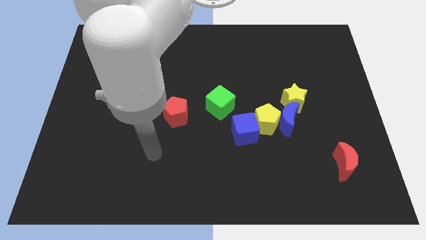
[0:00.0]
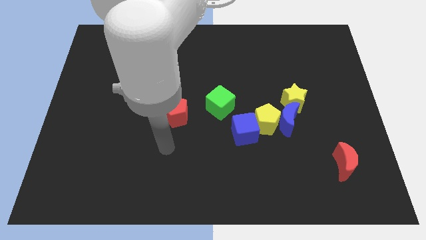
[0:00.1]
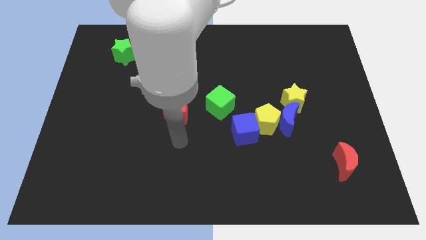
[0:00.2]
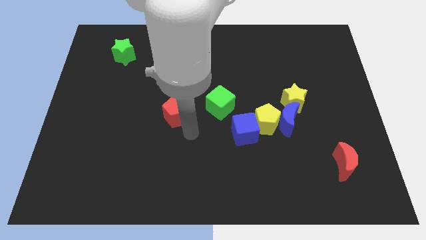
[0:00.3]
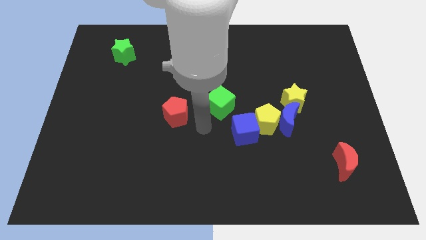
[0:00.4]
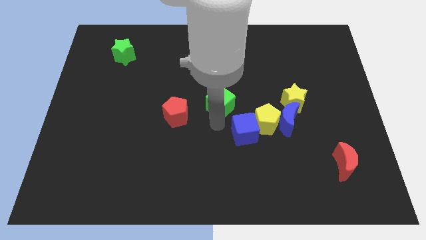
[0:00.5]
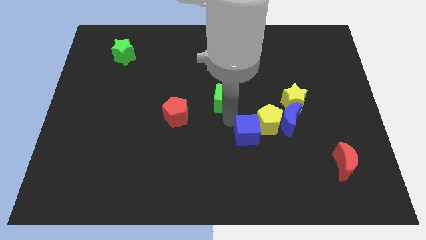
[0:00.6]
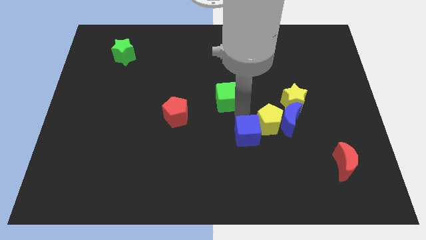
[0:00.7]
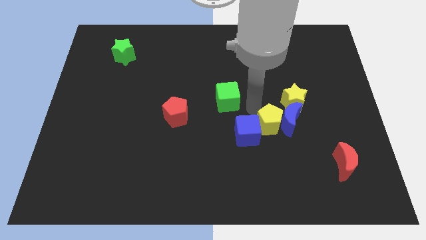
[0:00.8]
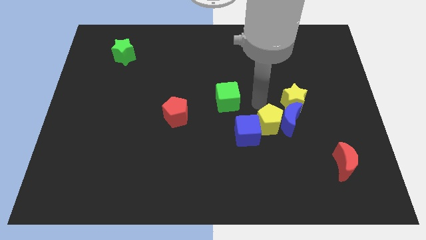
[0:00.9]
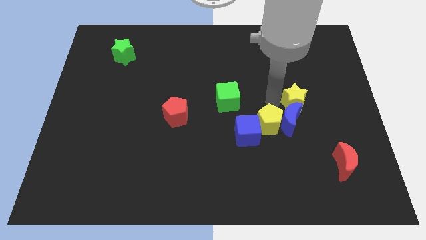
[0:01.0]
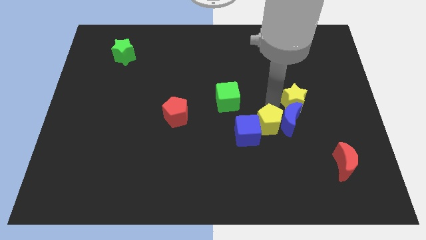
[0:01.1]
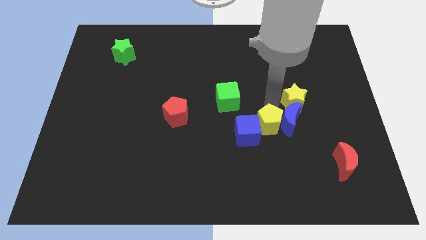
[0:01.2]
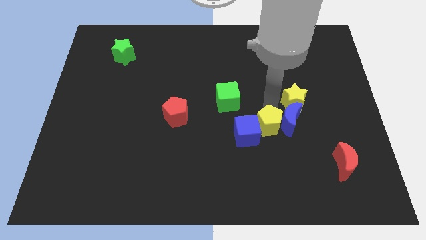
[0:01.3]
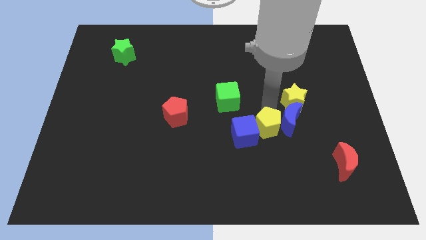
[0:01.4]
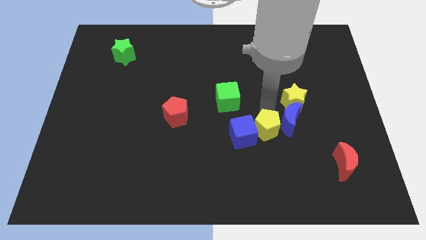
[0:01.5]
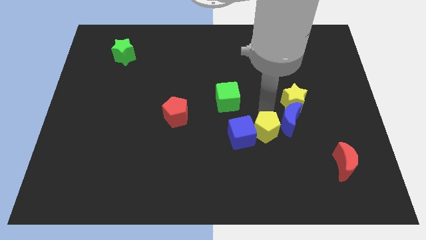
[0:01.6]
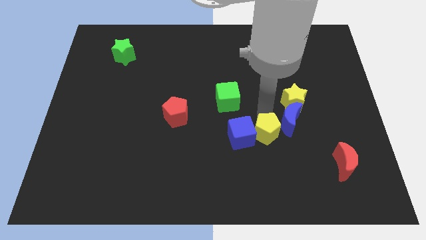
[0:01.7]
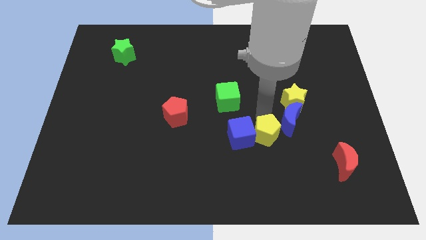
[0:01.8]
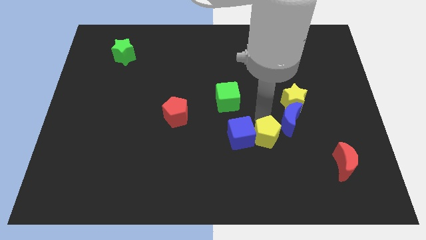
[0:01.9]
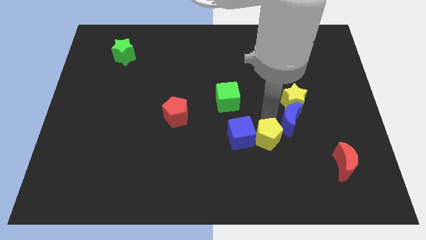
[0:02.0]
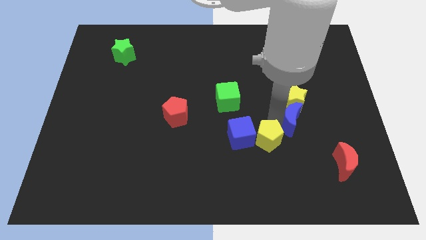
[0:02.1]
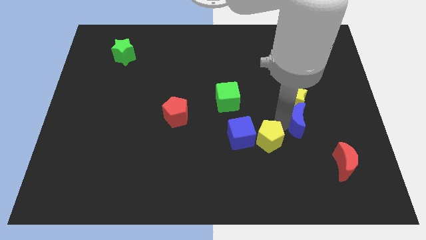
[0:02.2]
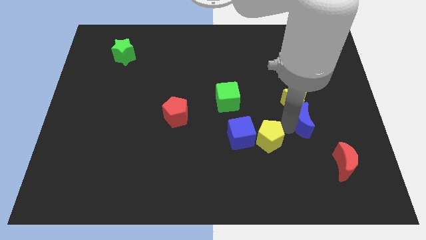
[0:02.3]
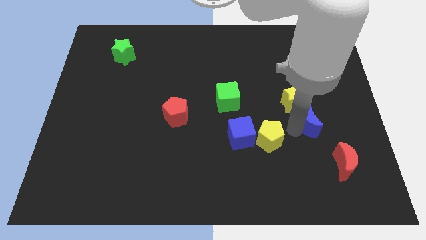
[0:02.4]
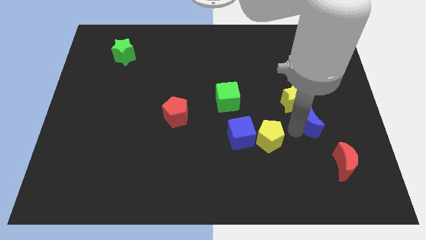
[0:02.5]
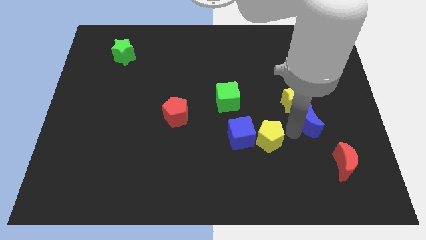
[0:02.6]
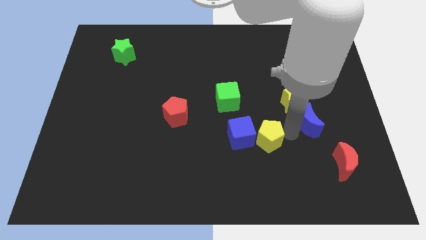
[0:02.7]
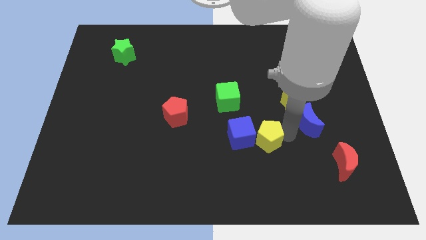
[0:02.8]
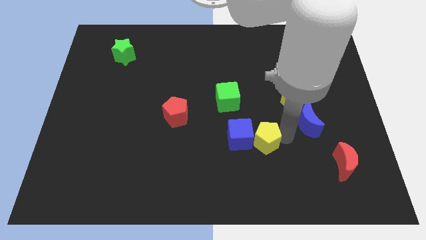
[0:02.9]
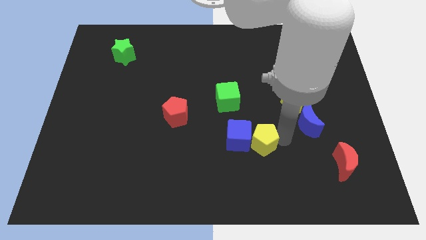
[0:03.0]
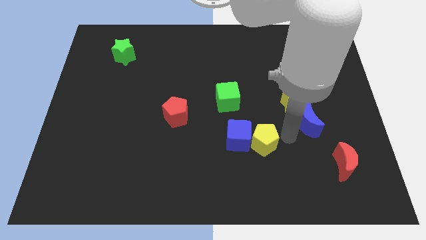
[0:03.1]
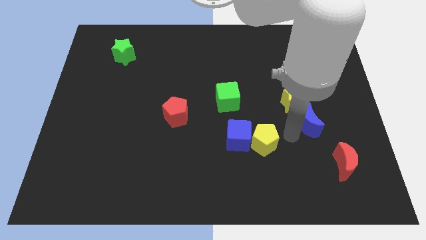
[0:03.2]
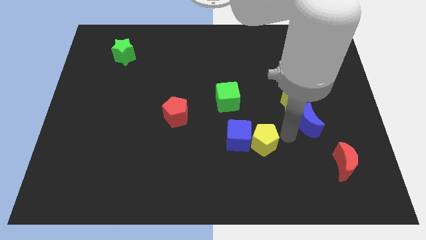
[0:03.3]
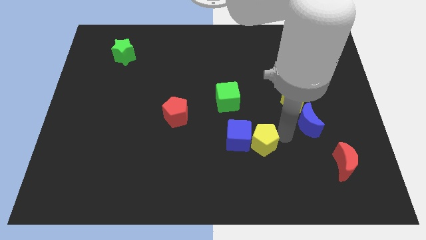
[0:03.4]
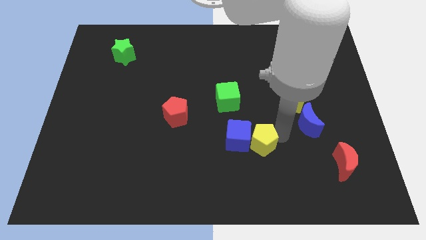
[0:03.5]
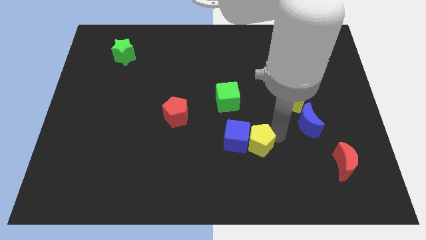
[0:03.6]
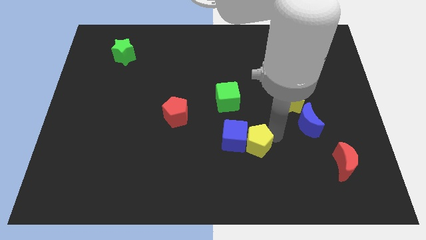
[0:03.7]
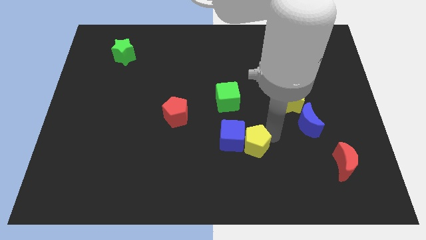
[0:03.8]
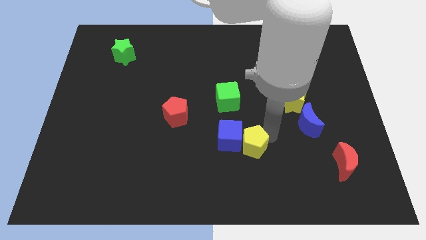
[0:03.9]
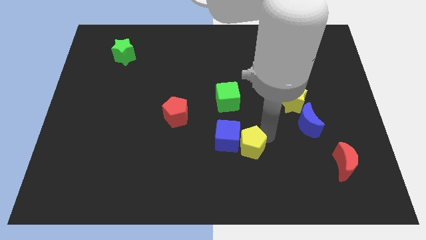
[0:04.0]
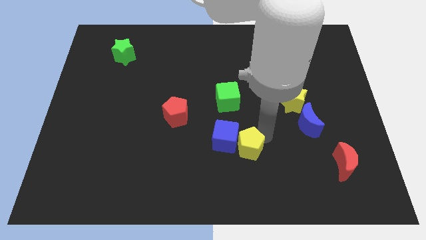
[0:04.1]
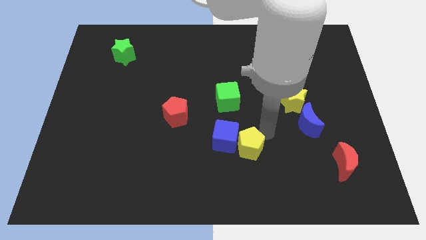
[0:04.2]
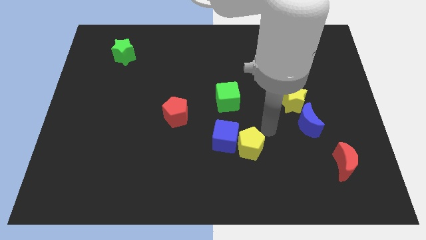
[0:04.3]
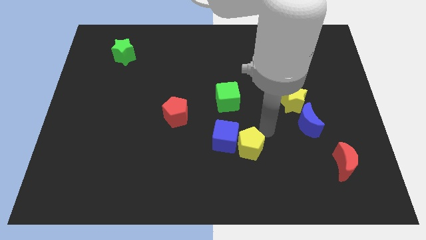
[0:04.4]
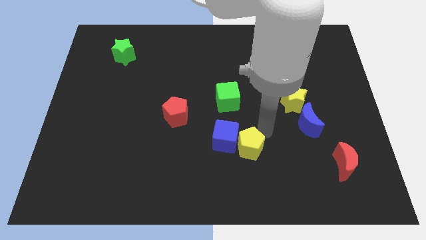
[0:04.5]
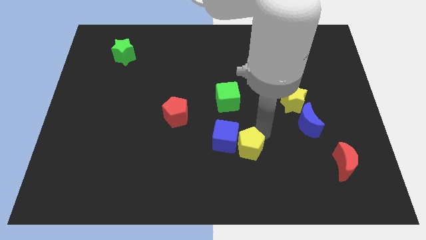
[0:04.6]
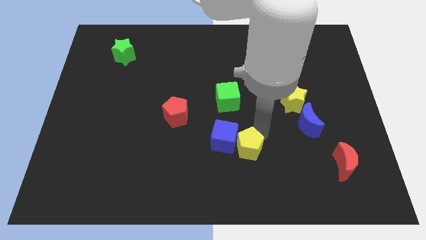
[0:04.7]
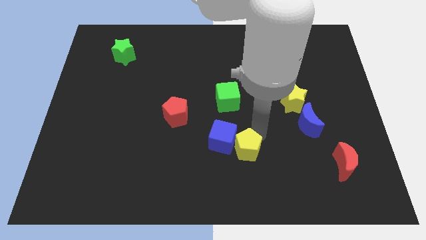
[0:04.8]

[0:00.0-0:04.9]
move the yellow pentagon away from the blue moon, blue cube, and yellow star

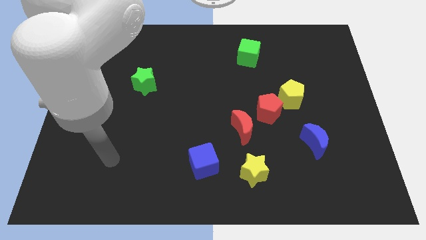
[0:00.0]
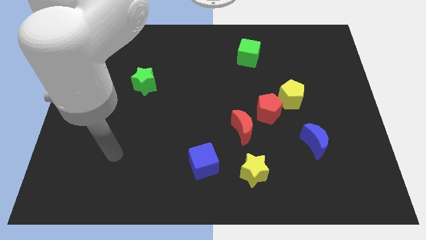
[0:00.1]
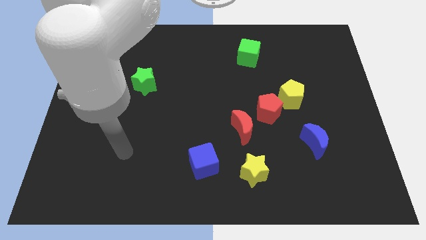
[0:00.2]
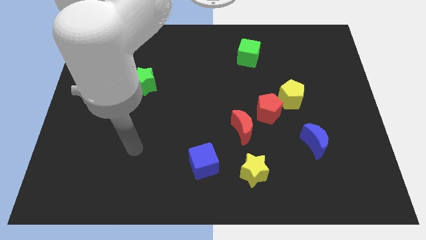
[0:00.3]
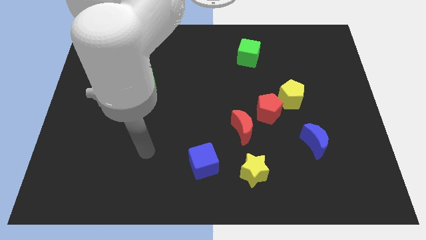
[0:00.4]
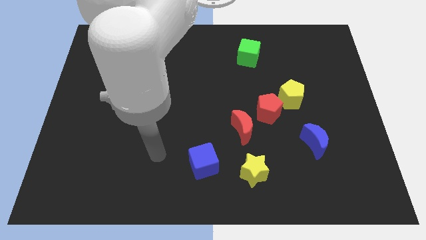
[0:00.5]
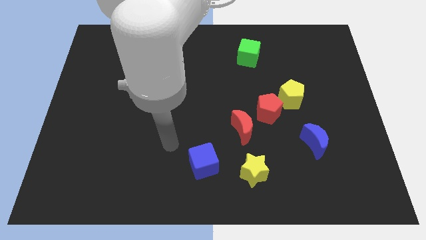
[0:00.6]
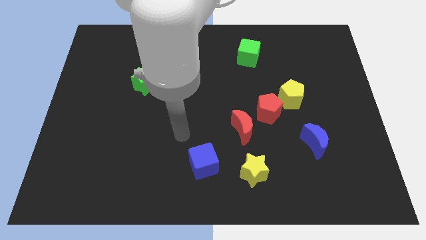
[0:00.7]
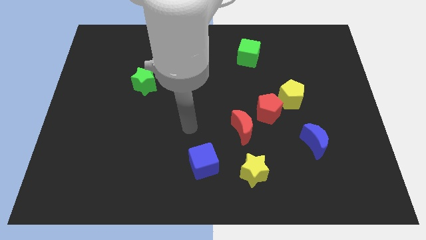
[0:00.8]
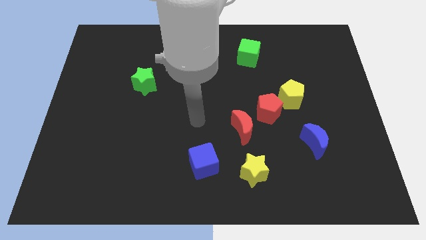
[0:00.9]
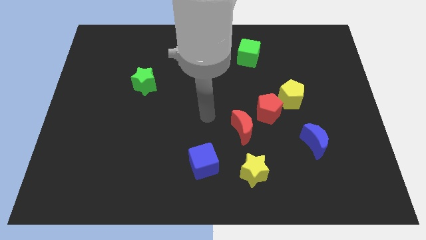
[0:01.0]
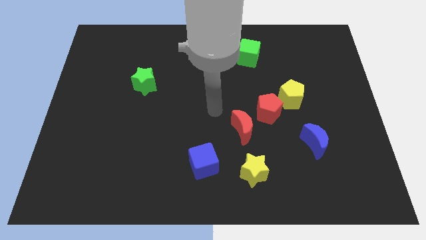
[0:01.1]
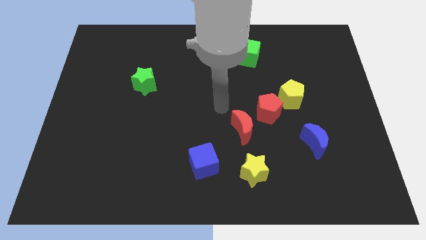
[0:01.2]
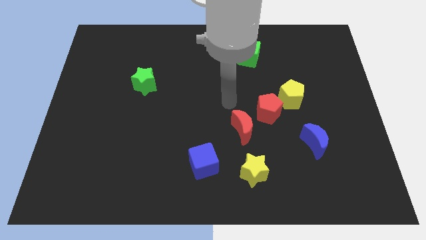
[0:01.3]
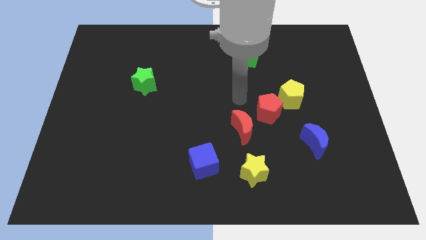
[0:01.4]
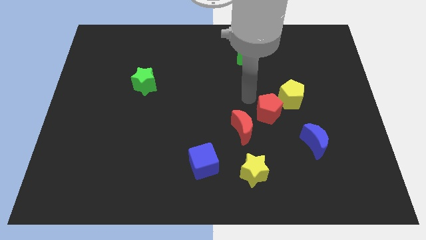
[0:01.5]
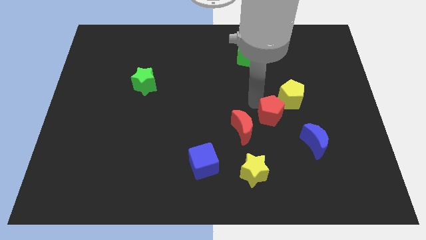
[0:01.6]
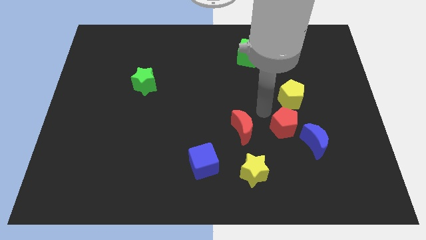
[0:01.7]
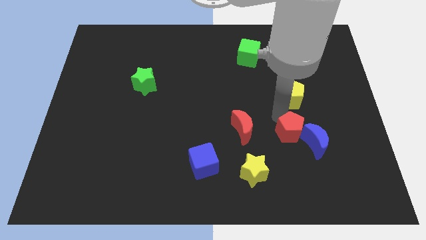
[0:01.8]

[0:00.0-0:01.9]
separate the yellow pentagon from the red pentagon

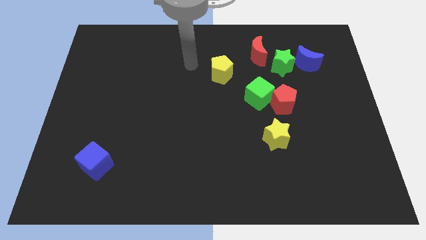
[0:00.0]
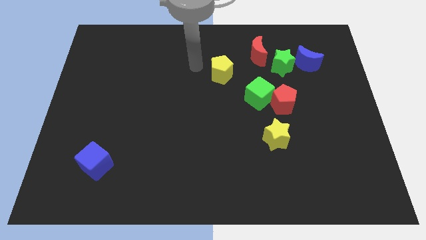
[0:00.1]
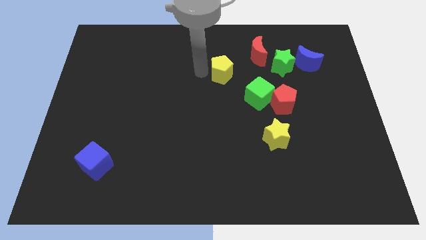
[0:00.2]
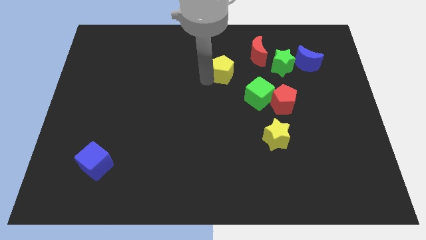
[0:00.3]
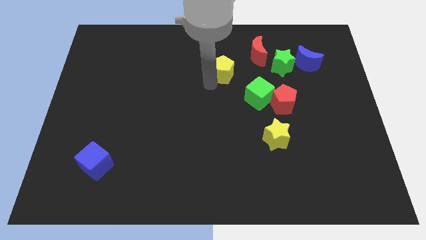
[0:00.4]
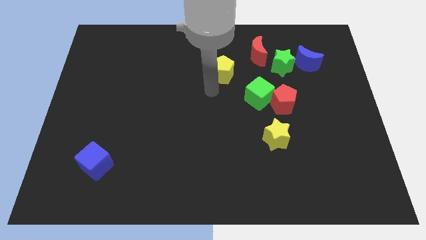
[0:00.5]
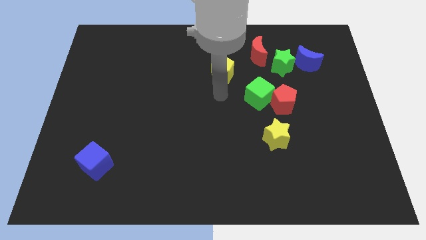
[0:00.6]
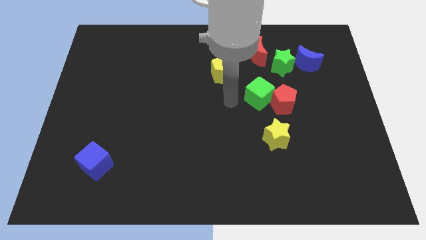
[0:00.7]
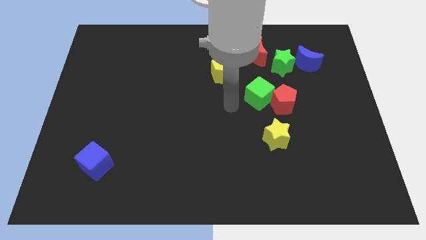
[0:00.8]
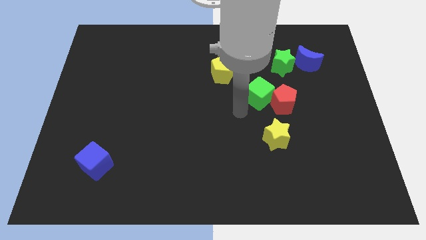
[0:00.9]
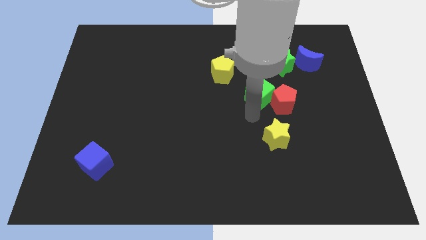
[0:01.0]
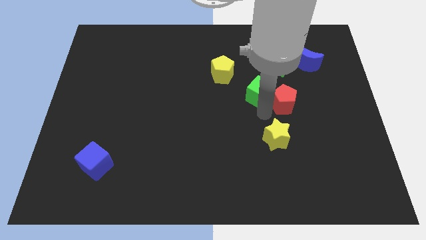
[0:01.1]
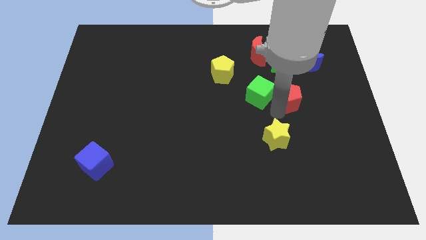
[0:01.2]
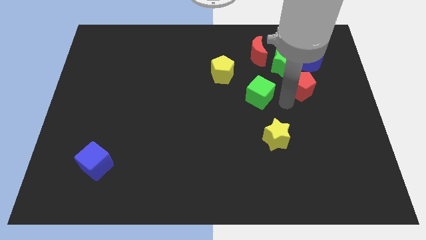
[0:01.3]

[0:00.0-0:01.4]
pull the green cube apart from the red pentagon

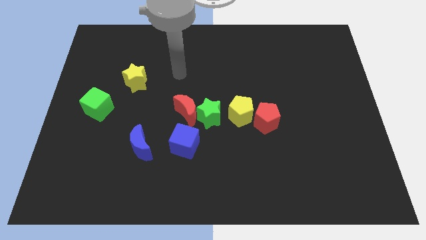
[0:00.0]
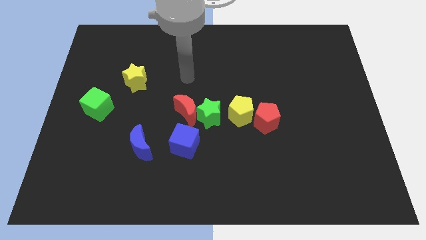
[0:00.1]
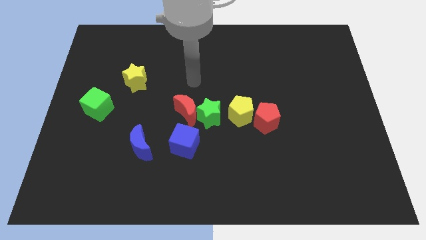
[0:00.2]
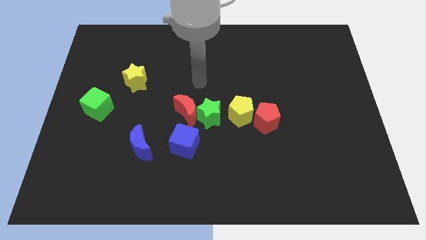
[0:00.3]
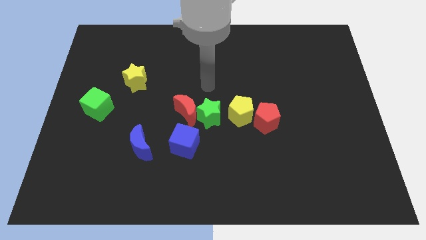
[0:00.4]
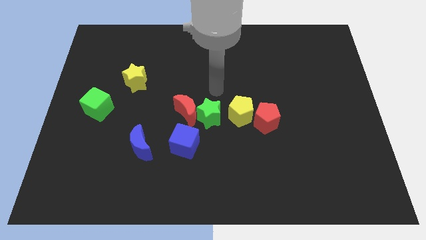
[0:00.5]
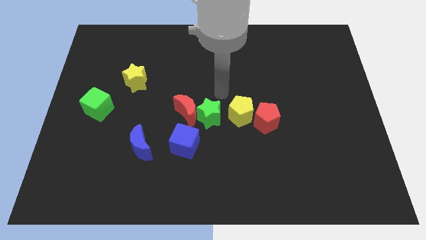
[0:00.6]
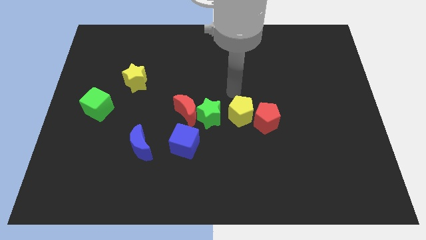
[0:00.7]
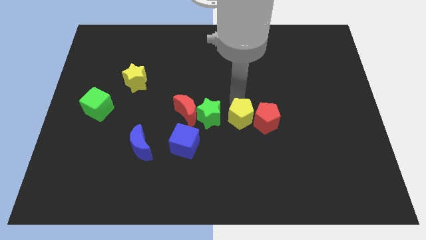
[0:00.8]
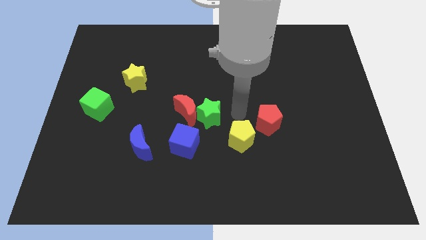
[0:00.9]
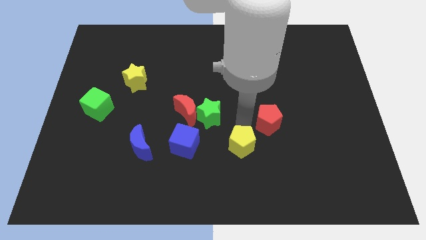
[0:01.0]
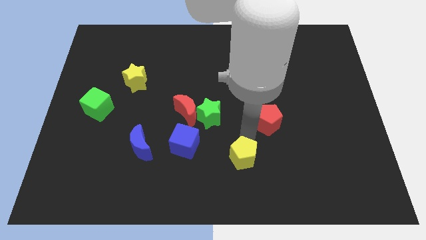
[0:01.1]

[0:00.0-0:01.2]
separate the red pentagon from the yellow pentagon
